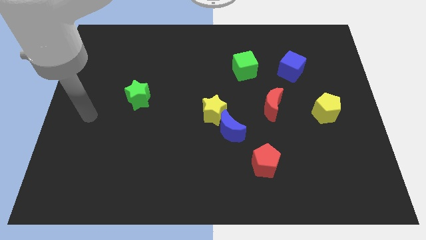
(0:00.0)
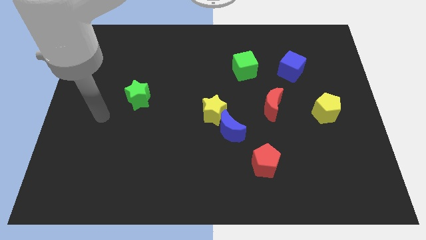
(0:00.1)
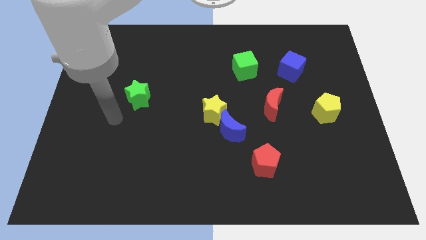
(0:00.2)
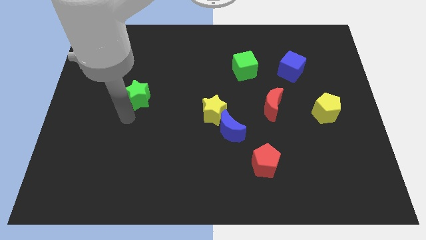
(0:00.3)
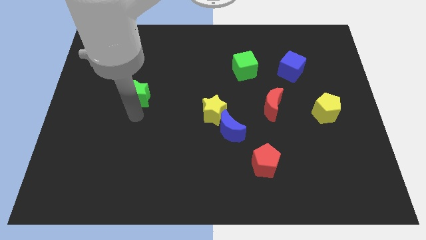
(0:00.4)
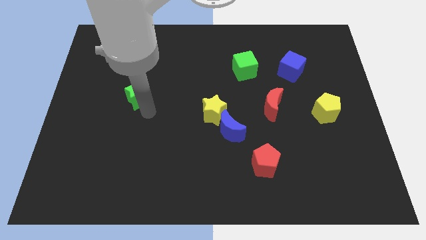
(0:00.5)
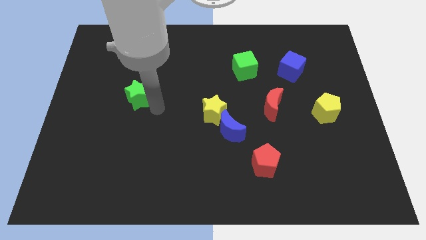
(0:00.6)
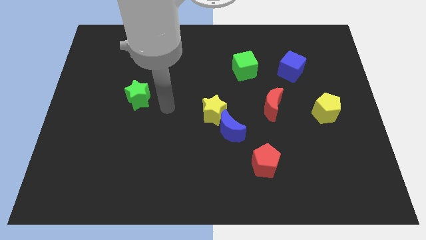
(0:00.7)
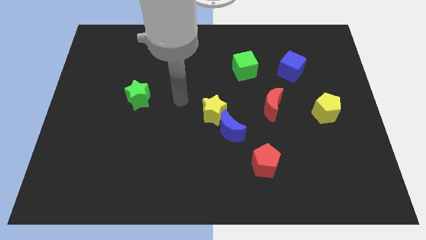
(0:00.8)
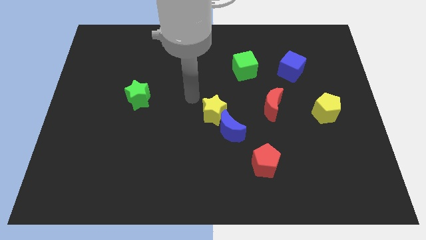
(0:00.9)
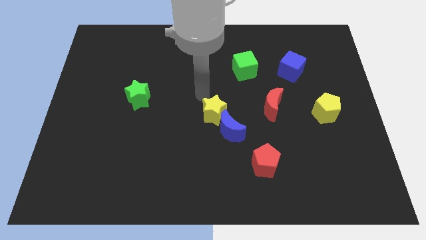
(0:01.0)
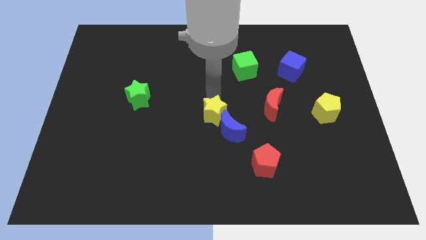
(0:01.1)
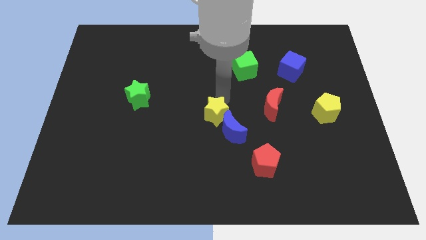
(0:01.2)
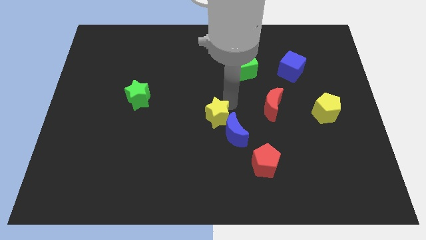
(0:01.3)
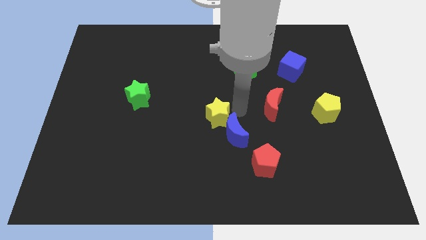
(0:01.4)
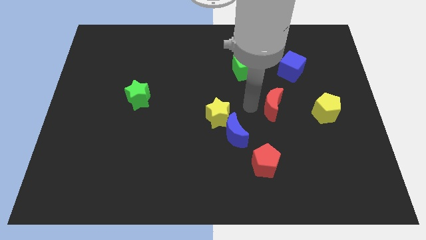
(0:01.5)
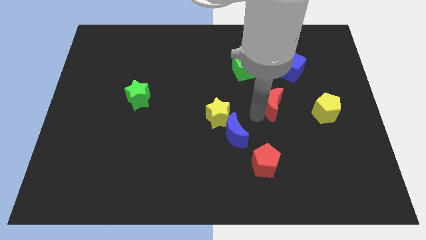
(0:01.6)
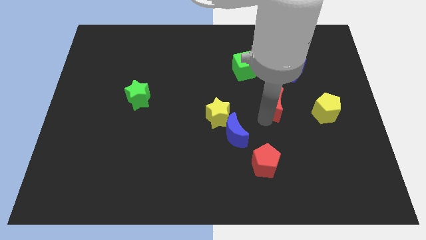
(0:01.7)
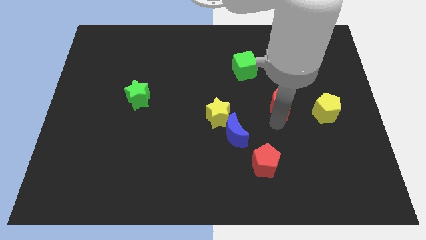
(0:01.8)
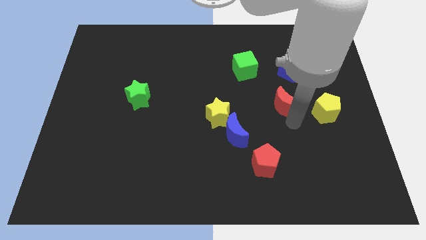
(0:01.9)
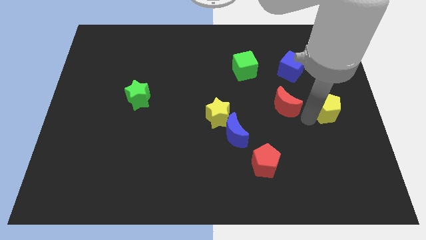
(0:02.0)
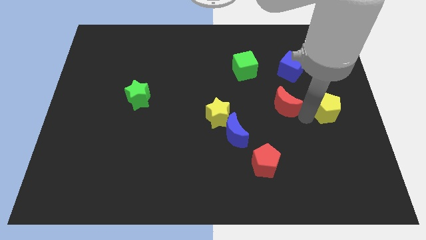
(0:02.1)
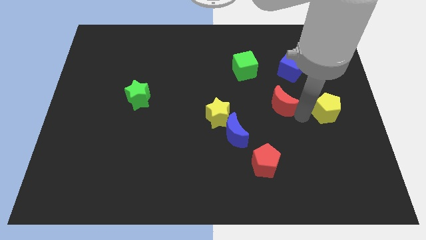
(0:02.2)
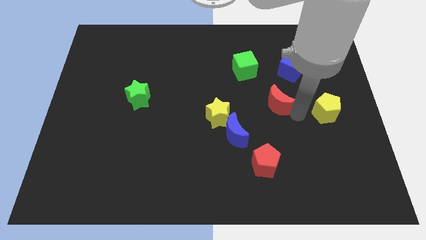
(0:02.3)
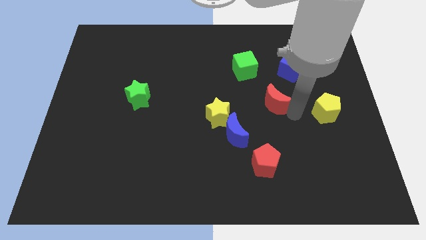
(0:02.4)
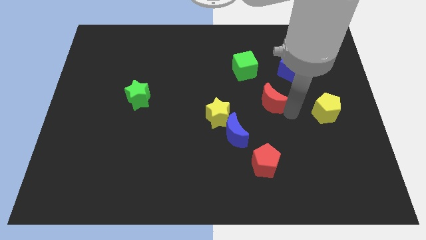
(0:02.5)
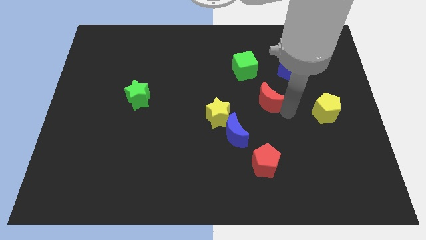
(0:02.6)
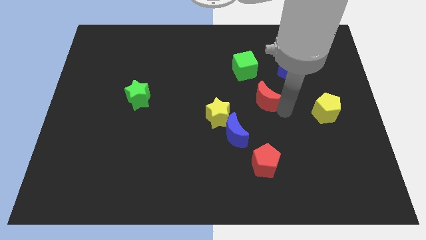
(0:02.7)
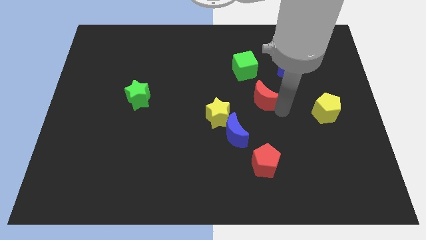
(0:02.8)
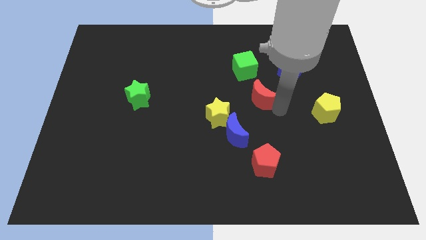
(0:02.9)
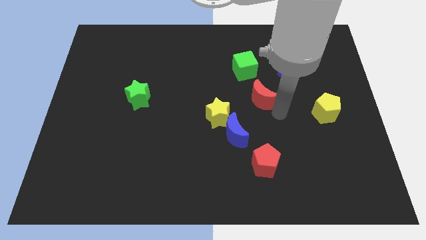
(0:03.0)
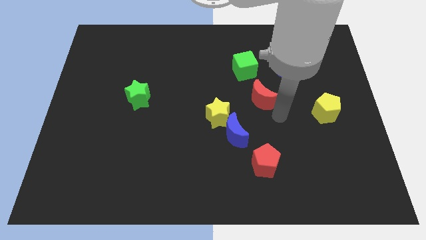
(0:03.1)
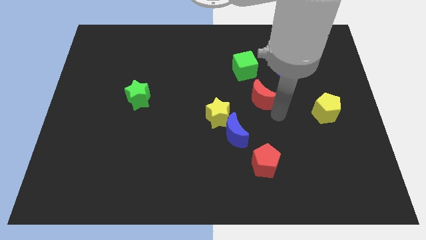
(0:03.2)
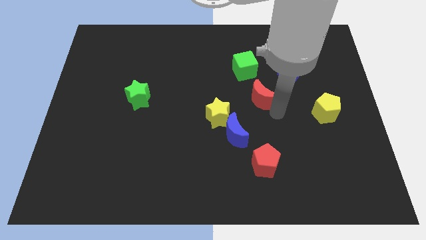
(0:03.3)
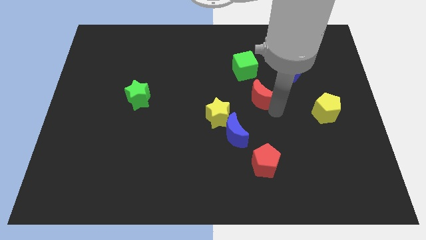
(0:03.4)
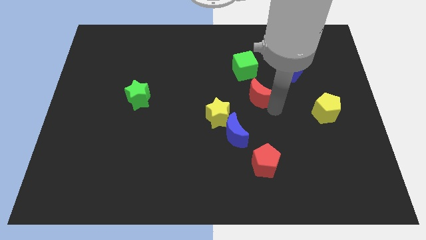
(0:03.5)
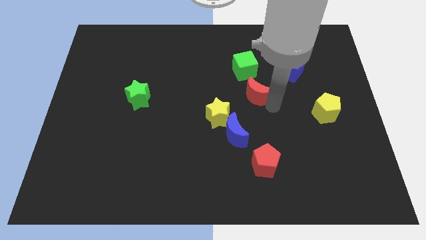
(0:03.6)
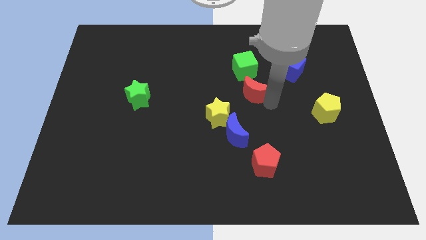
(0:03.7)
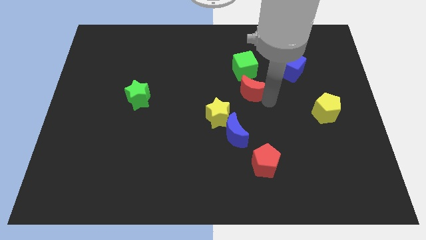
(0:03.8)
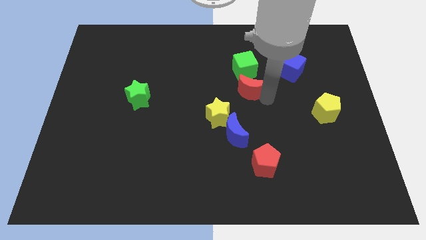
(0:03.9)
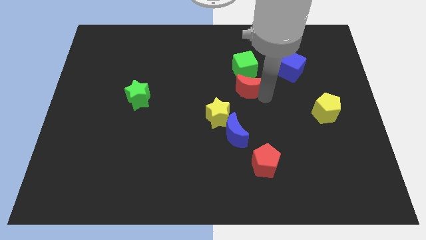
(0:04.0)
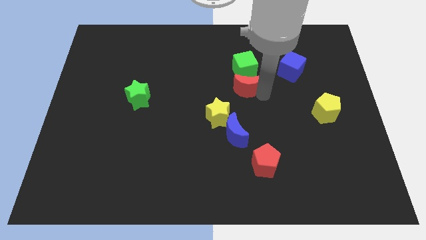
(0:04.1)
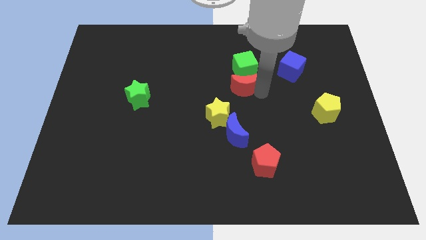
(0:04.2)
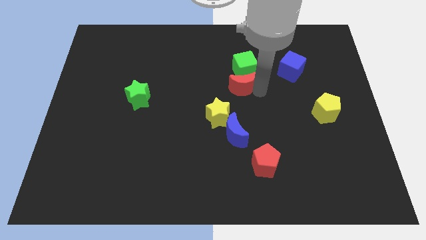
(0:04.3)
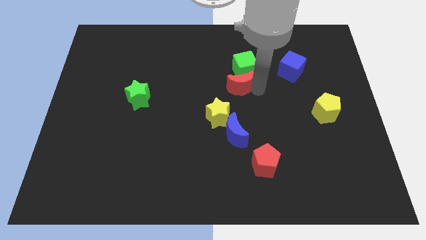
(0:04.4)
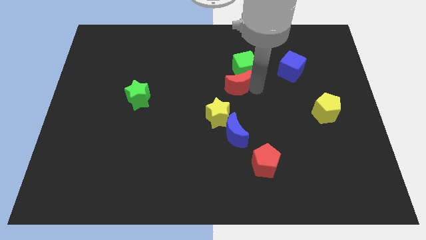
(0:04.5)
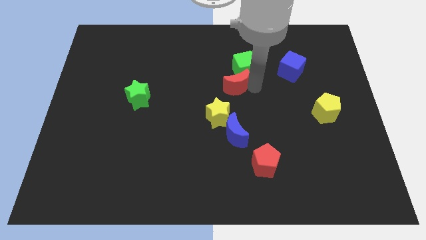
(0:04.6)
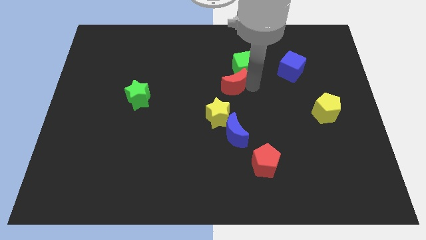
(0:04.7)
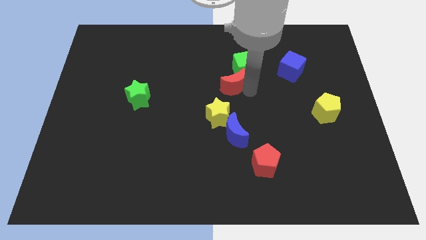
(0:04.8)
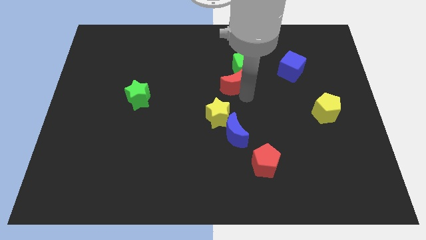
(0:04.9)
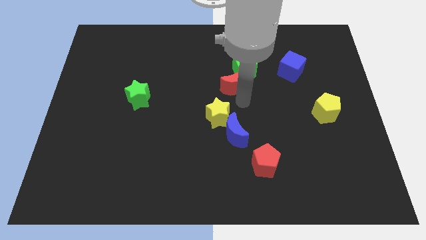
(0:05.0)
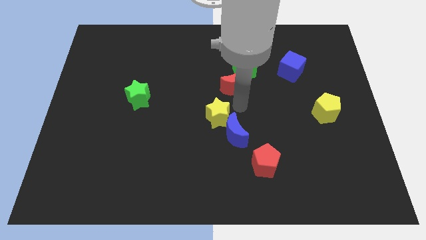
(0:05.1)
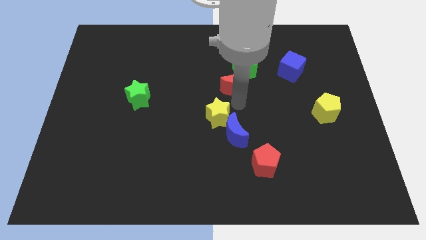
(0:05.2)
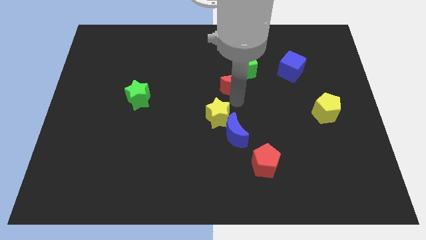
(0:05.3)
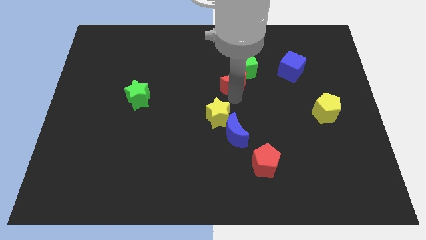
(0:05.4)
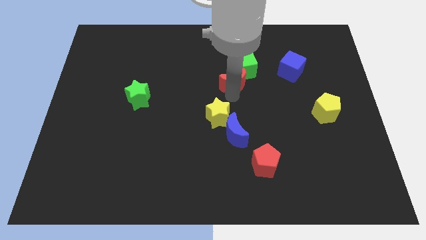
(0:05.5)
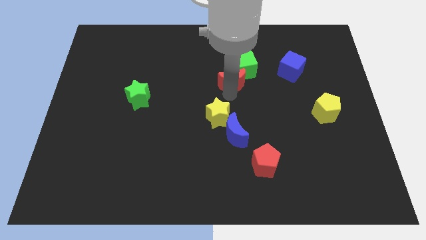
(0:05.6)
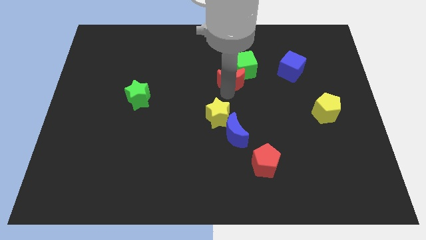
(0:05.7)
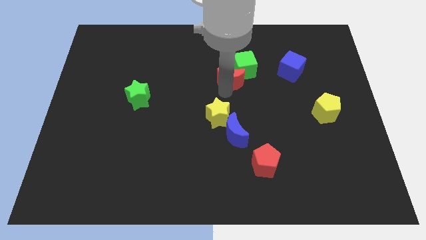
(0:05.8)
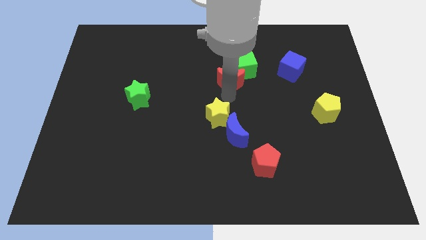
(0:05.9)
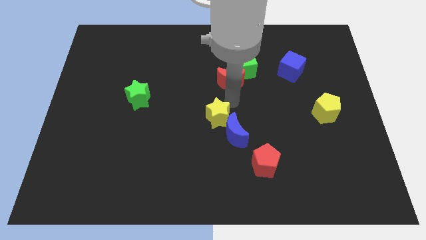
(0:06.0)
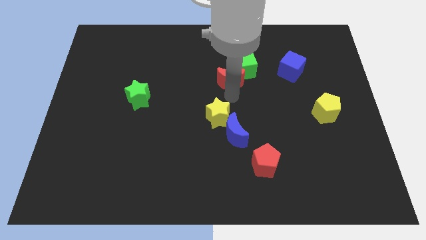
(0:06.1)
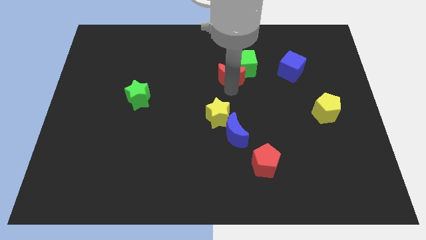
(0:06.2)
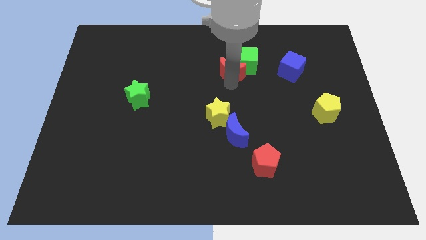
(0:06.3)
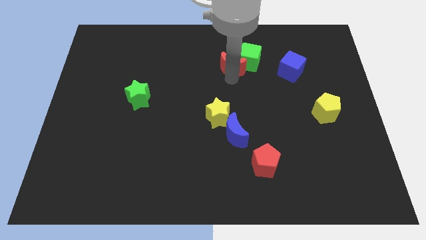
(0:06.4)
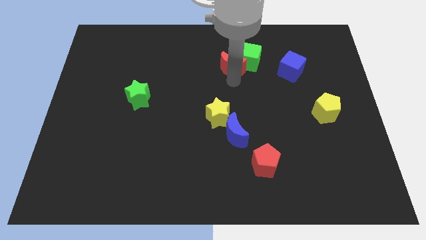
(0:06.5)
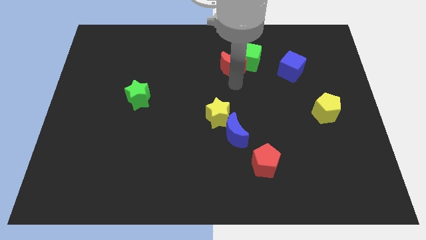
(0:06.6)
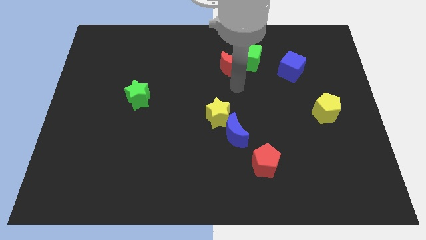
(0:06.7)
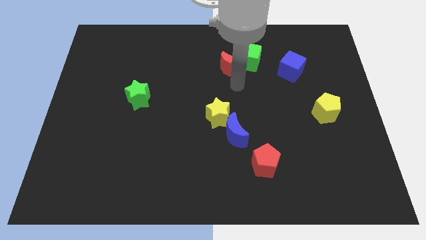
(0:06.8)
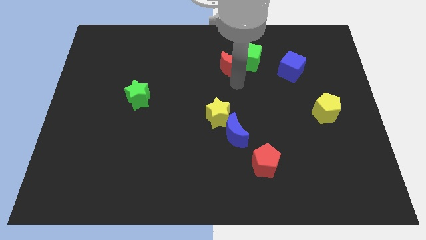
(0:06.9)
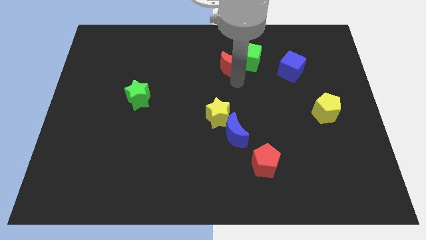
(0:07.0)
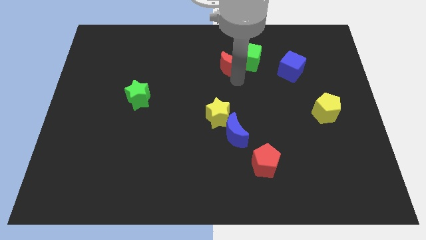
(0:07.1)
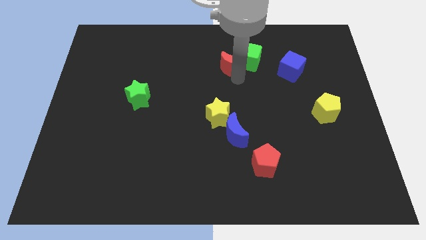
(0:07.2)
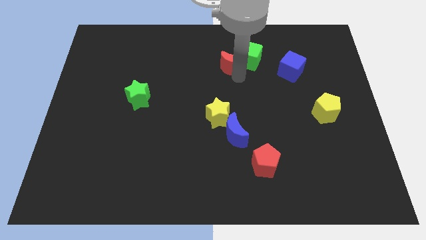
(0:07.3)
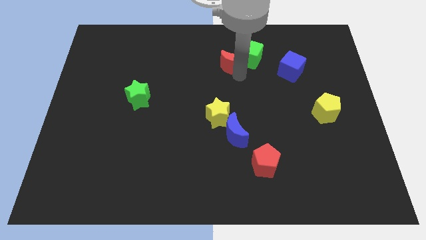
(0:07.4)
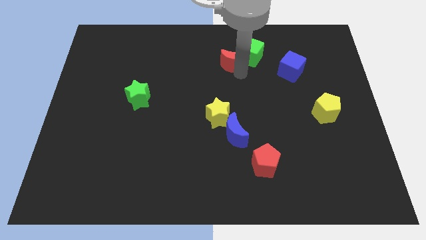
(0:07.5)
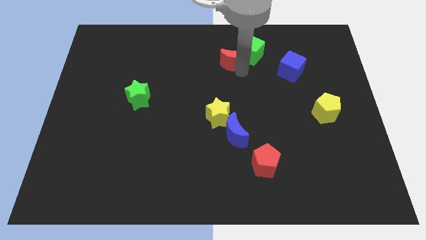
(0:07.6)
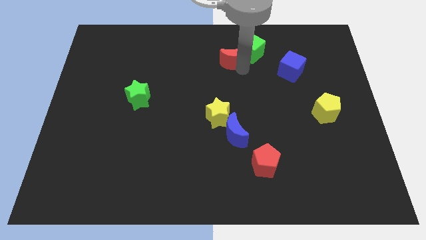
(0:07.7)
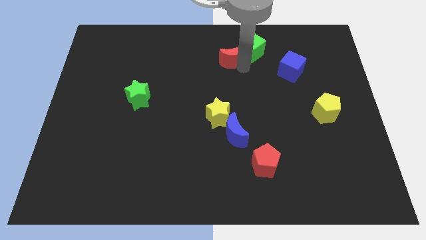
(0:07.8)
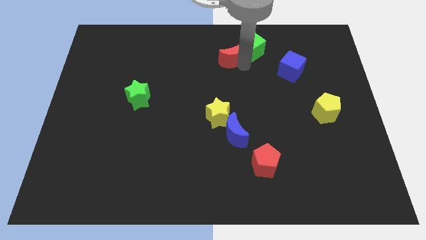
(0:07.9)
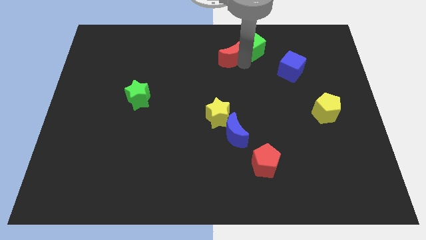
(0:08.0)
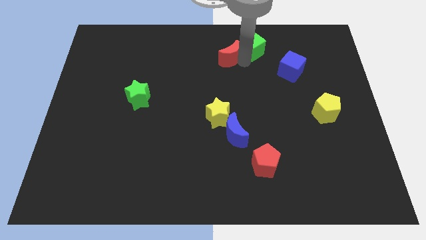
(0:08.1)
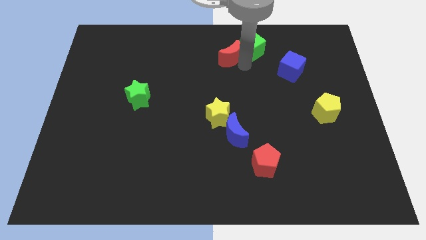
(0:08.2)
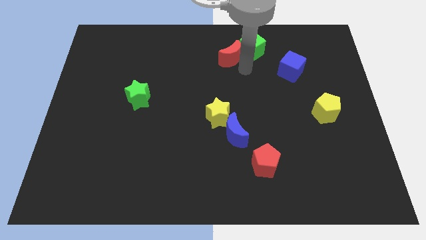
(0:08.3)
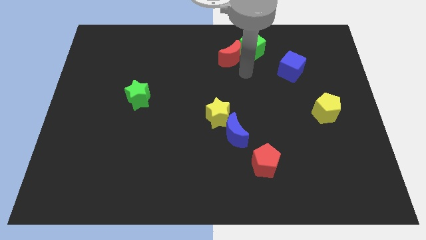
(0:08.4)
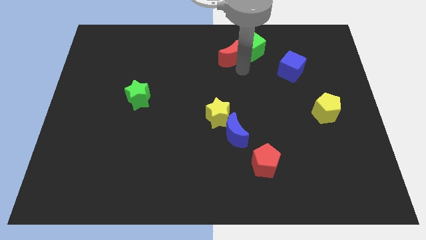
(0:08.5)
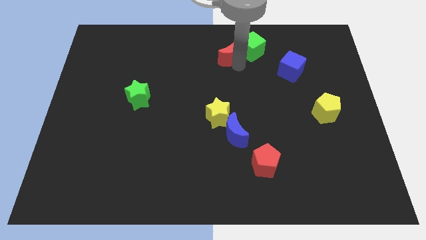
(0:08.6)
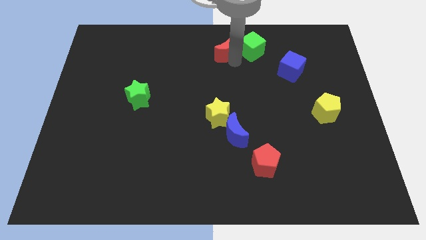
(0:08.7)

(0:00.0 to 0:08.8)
put the red moon to the top side
